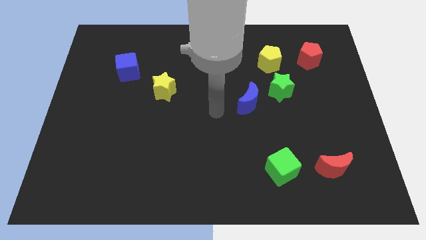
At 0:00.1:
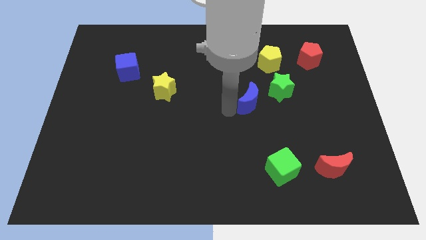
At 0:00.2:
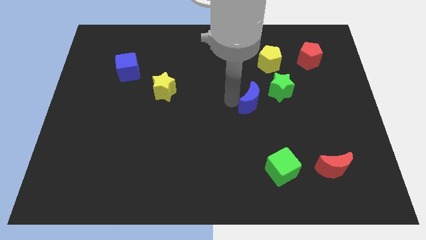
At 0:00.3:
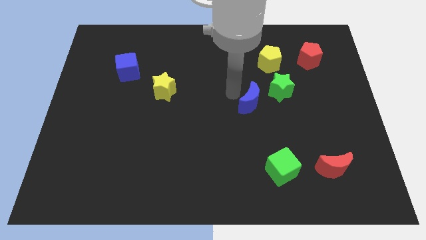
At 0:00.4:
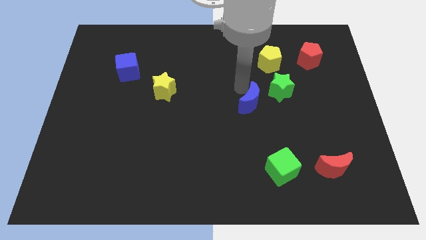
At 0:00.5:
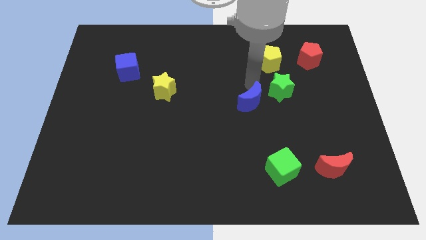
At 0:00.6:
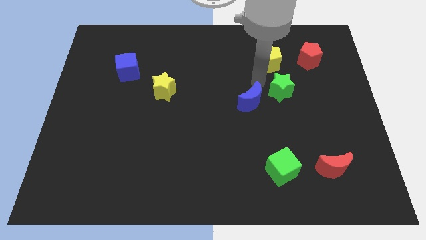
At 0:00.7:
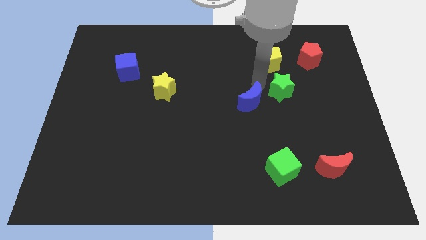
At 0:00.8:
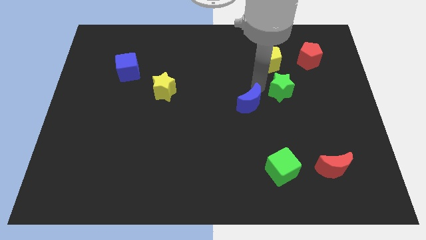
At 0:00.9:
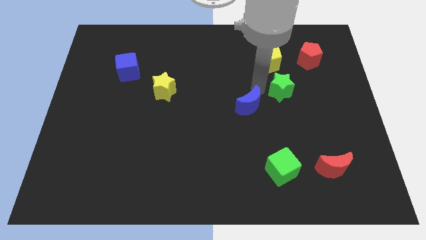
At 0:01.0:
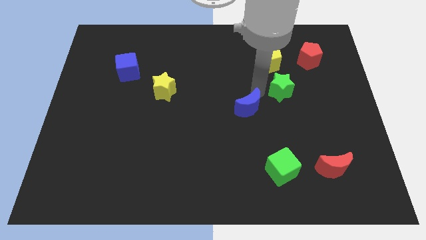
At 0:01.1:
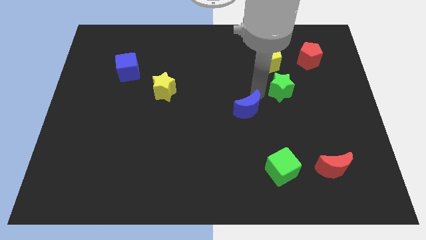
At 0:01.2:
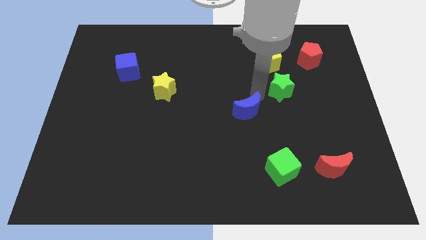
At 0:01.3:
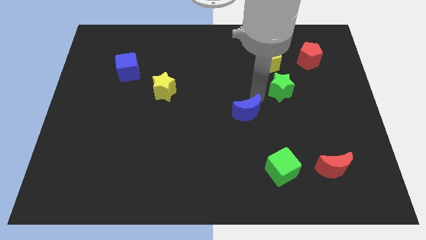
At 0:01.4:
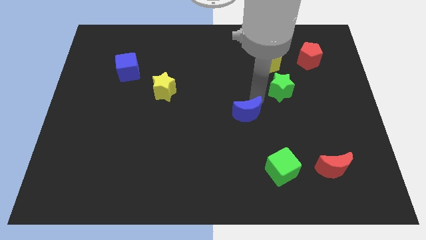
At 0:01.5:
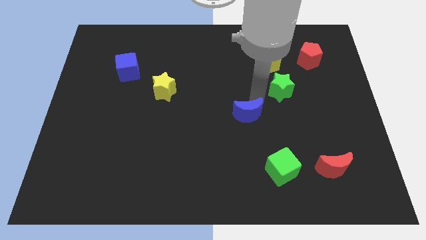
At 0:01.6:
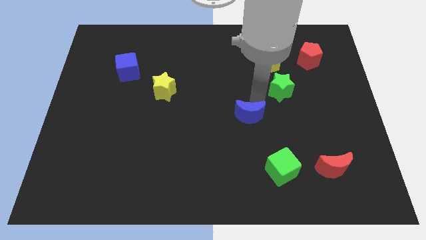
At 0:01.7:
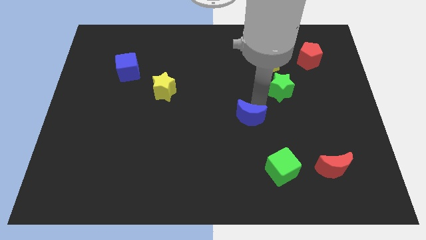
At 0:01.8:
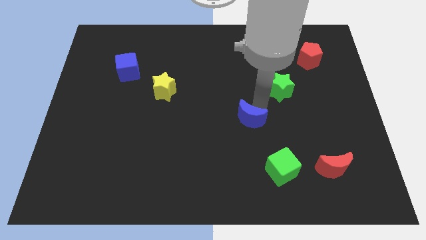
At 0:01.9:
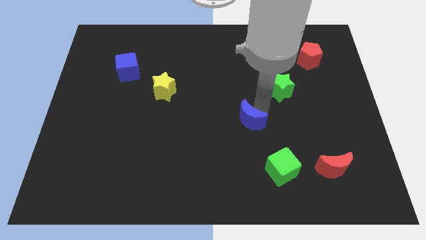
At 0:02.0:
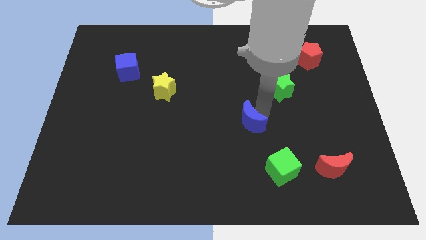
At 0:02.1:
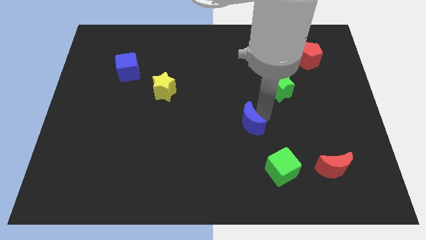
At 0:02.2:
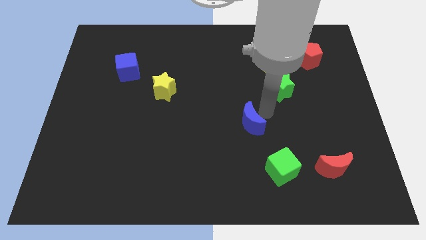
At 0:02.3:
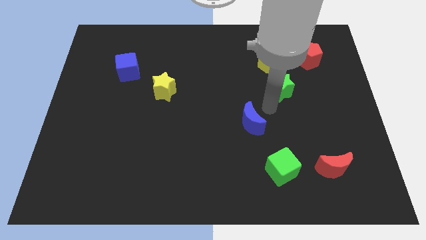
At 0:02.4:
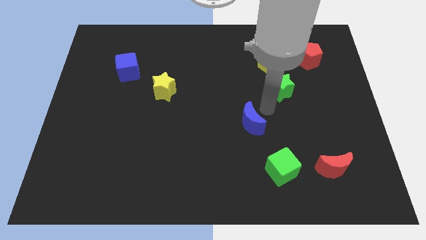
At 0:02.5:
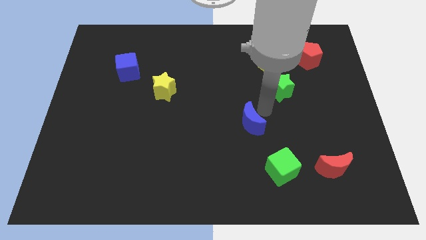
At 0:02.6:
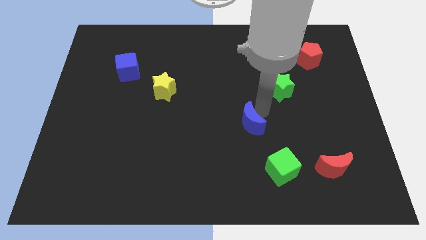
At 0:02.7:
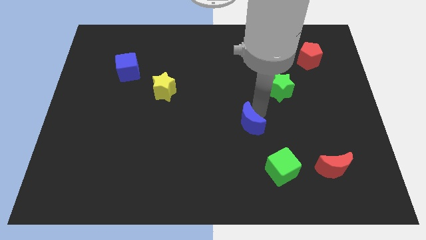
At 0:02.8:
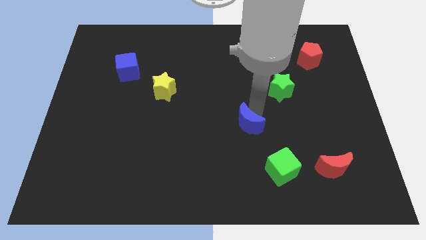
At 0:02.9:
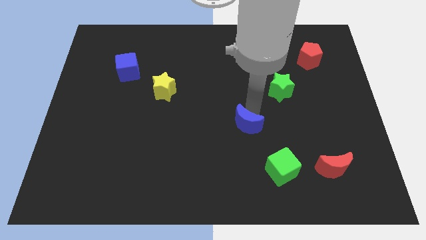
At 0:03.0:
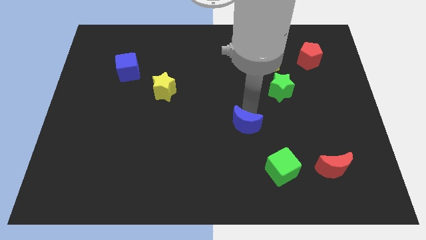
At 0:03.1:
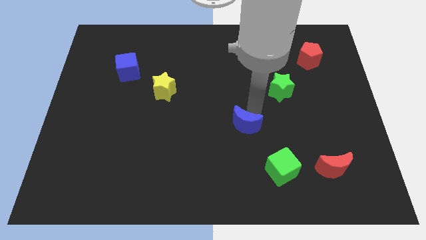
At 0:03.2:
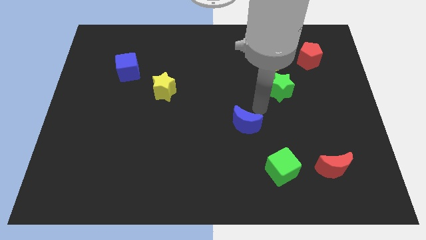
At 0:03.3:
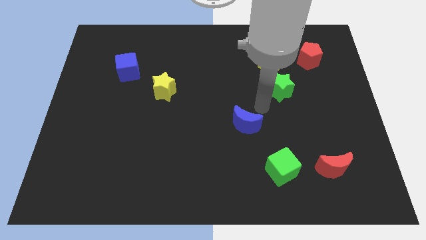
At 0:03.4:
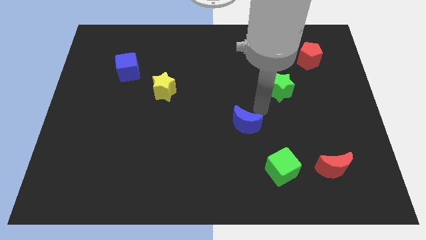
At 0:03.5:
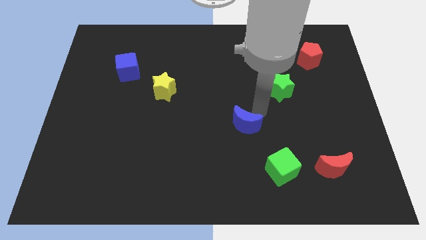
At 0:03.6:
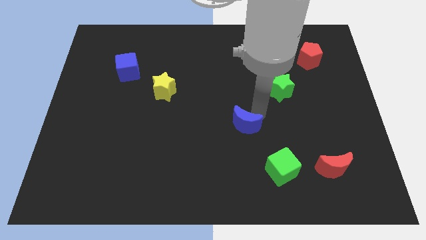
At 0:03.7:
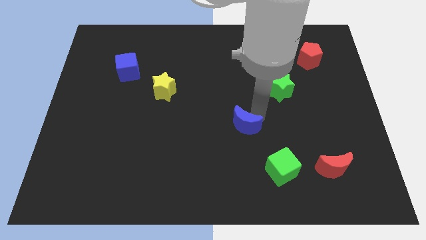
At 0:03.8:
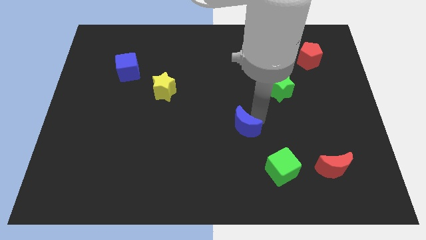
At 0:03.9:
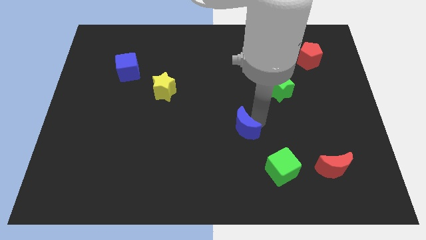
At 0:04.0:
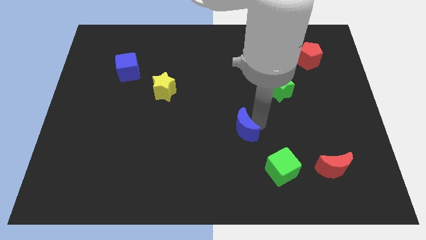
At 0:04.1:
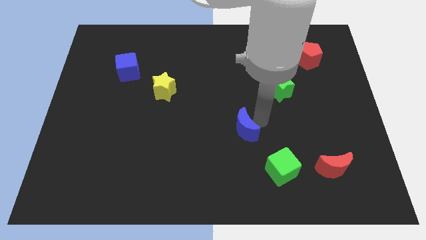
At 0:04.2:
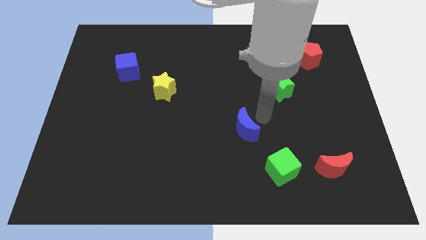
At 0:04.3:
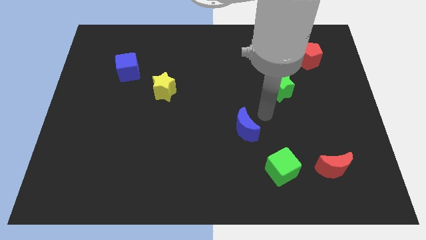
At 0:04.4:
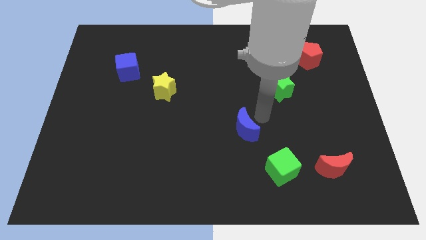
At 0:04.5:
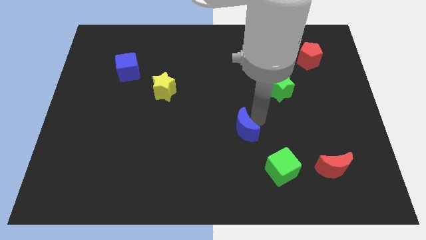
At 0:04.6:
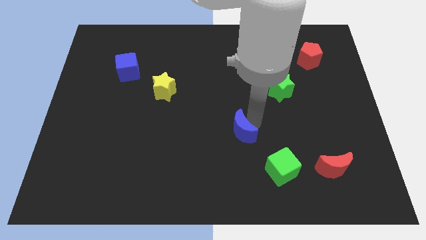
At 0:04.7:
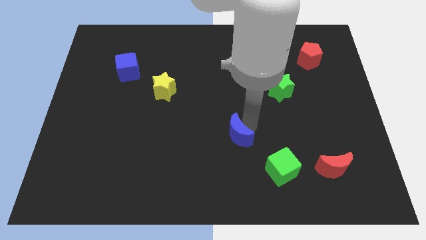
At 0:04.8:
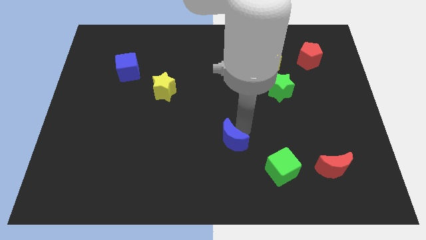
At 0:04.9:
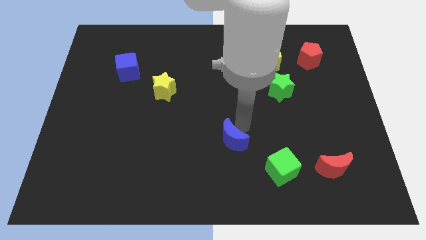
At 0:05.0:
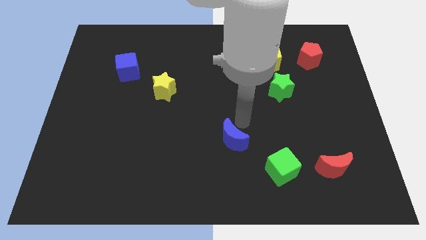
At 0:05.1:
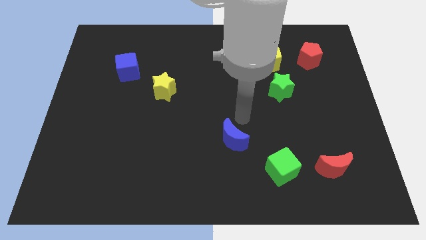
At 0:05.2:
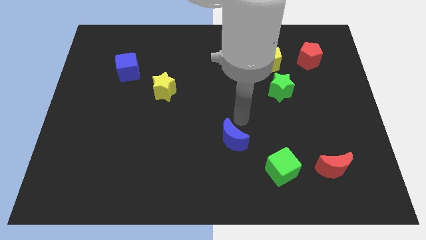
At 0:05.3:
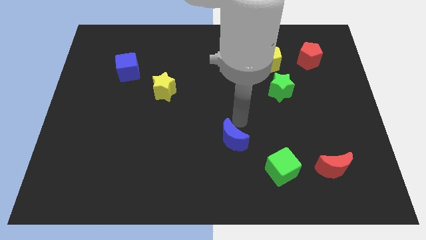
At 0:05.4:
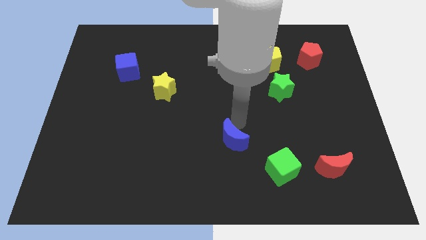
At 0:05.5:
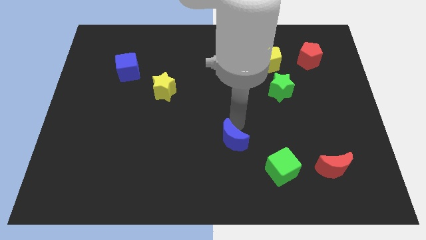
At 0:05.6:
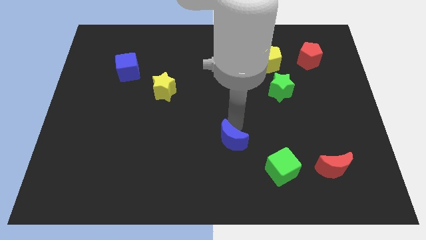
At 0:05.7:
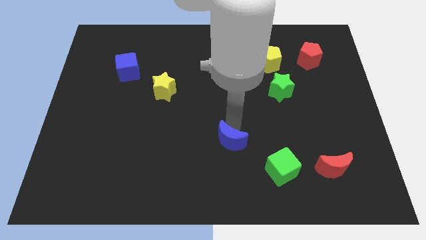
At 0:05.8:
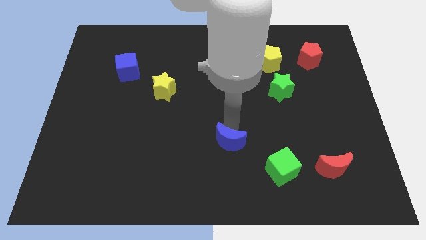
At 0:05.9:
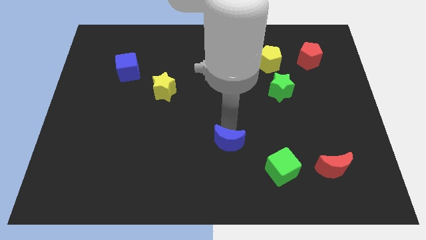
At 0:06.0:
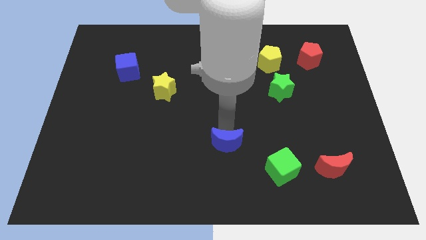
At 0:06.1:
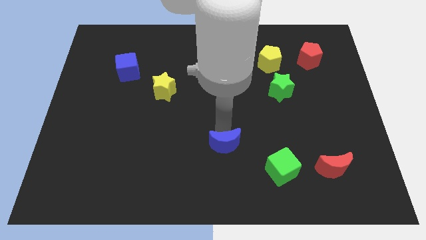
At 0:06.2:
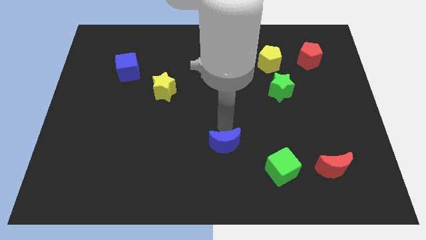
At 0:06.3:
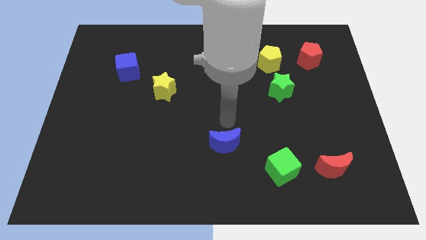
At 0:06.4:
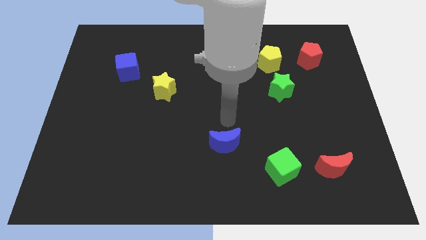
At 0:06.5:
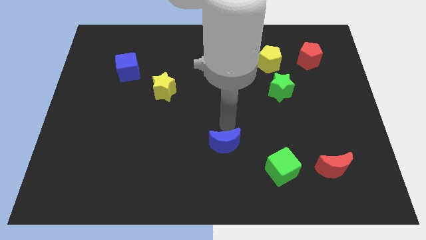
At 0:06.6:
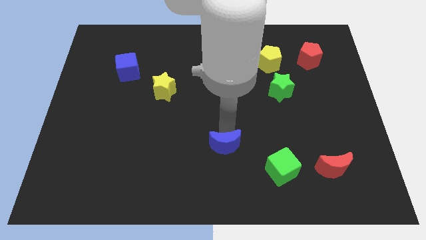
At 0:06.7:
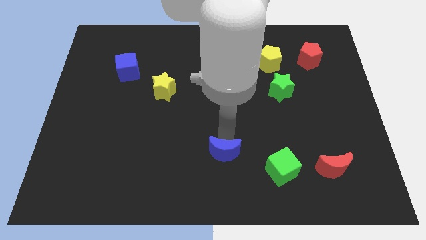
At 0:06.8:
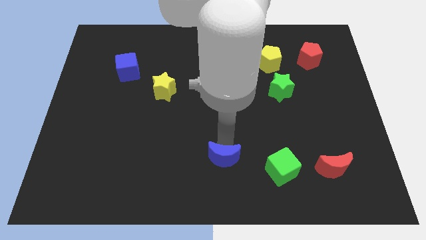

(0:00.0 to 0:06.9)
move the blue moon to the bottom side
